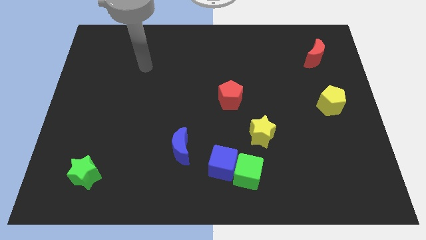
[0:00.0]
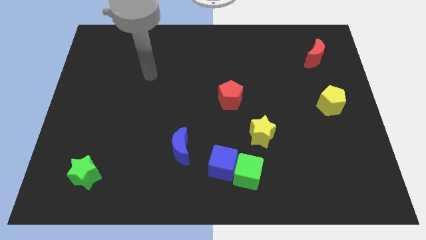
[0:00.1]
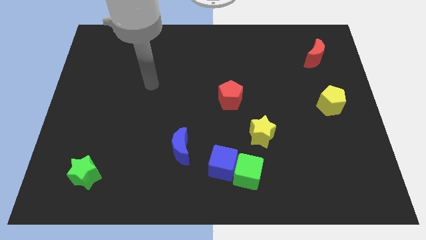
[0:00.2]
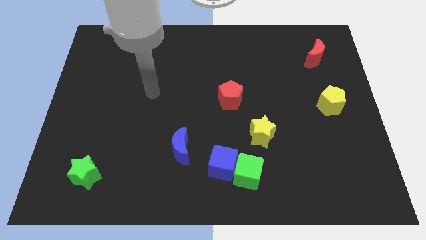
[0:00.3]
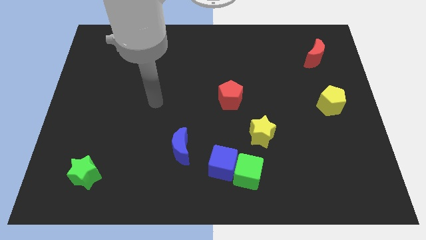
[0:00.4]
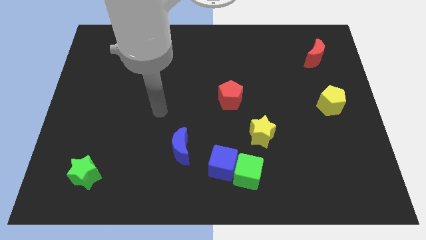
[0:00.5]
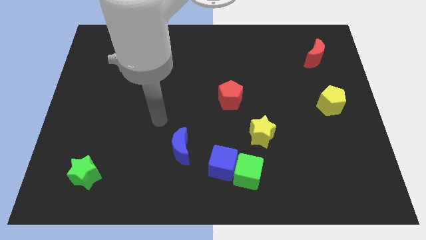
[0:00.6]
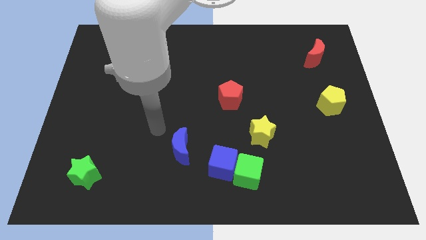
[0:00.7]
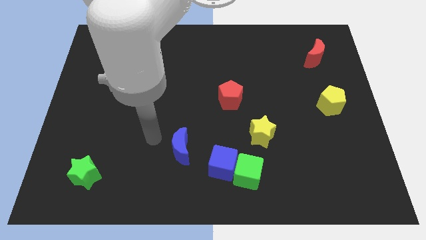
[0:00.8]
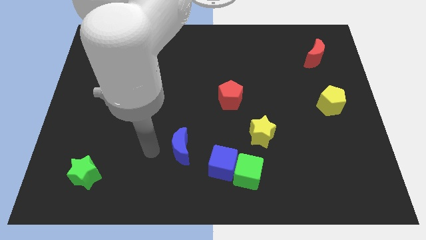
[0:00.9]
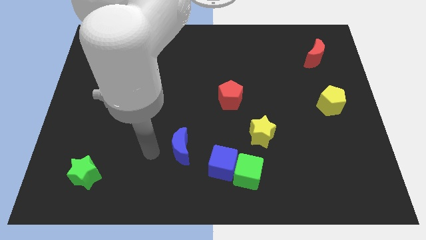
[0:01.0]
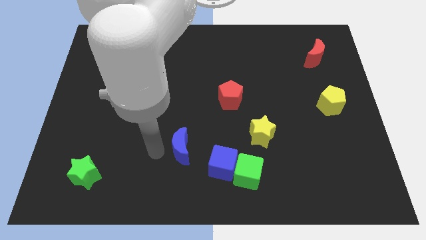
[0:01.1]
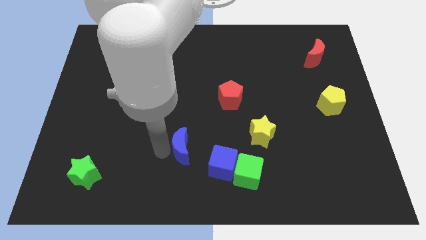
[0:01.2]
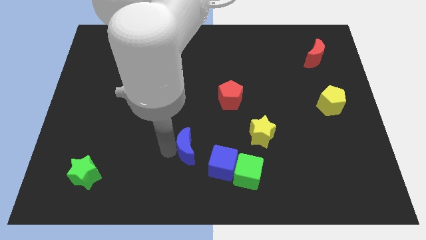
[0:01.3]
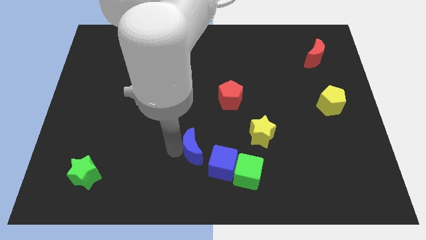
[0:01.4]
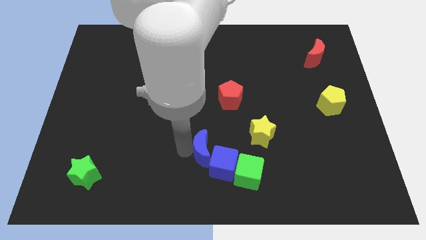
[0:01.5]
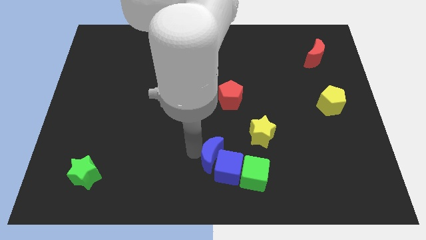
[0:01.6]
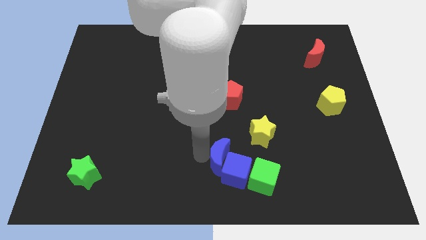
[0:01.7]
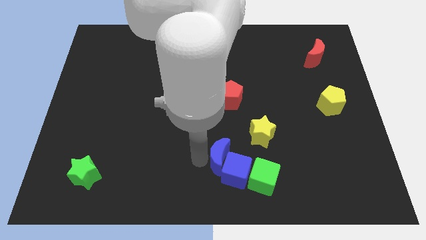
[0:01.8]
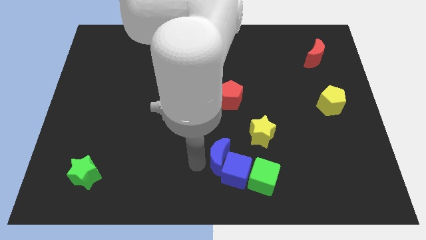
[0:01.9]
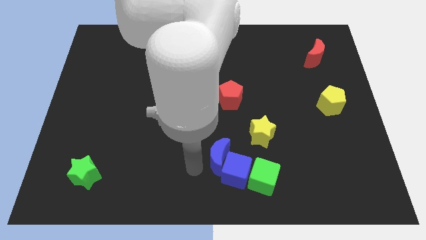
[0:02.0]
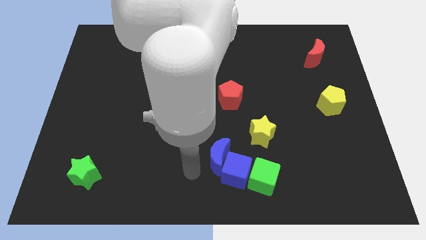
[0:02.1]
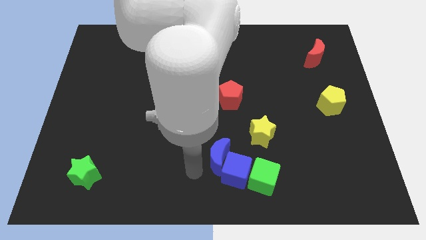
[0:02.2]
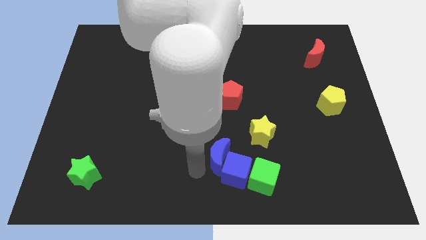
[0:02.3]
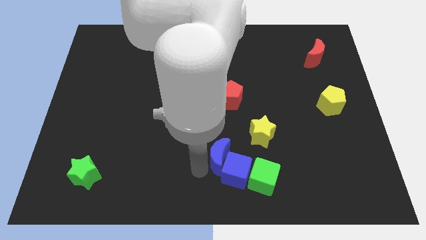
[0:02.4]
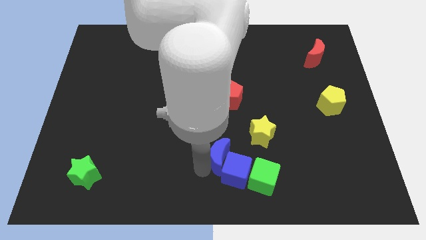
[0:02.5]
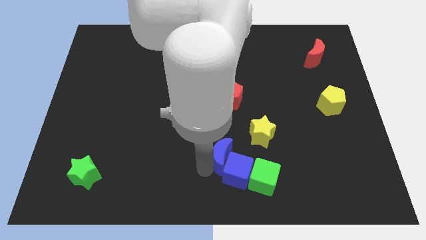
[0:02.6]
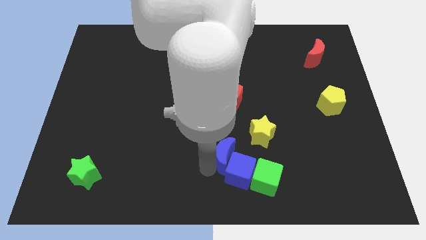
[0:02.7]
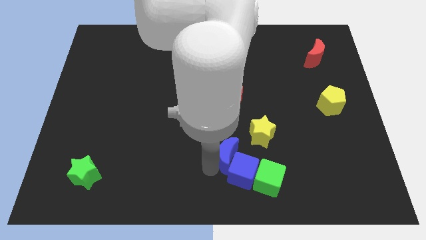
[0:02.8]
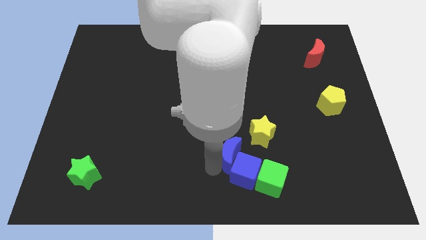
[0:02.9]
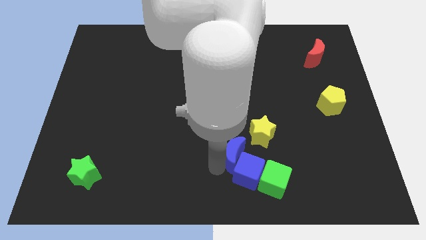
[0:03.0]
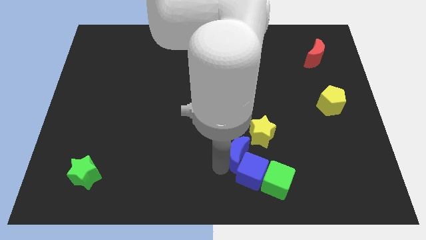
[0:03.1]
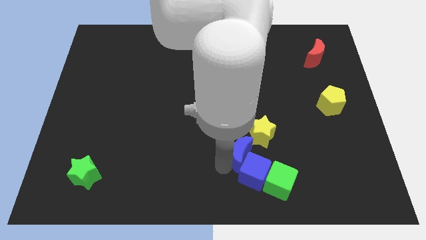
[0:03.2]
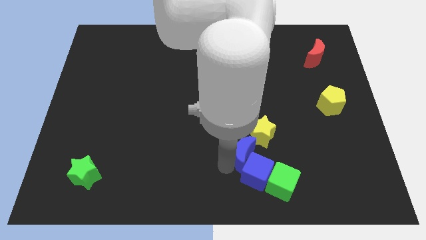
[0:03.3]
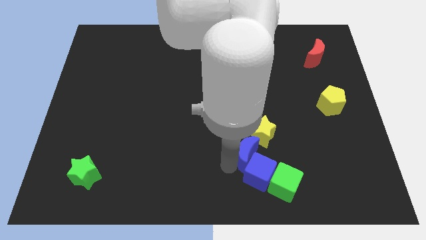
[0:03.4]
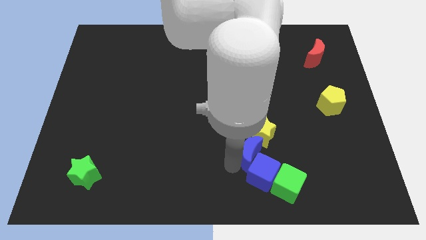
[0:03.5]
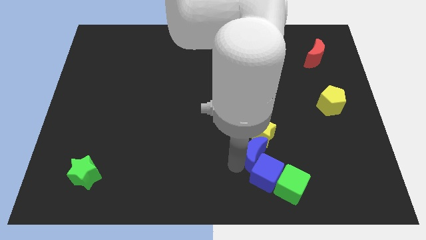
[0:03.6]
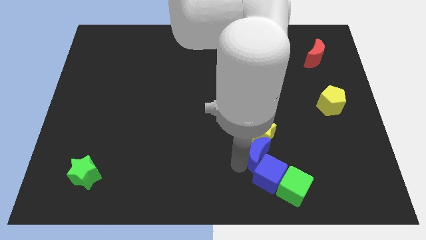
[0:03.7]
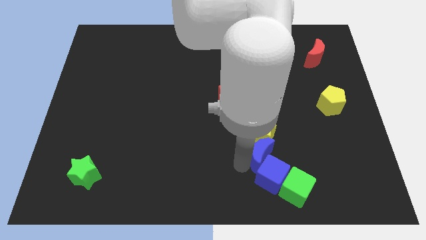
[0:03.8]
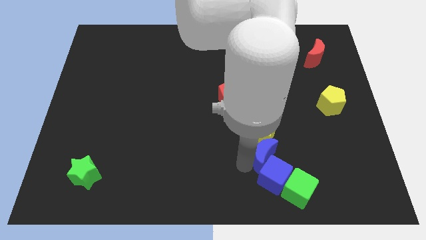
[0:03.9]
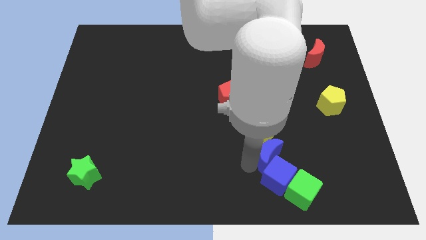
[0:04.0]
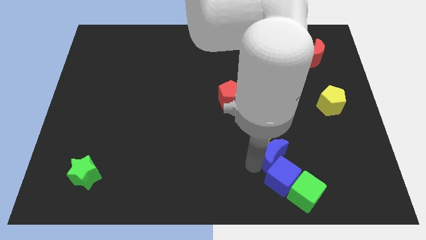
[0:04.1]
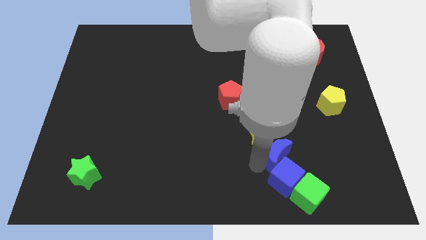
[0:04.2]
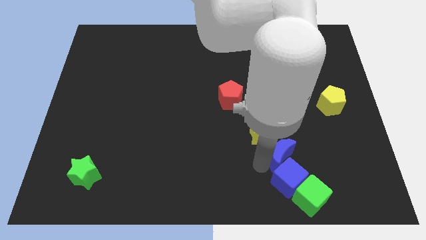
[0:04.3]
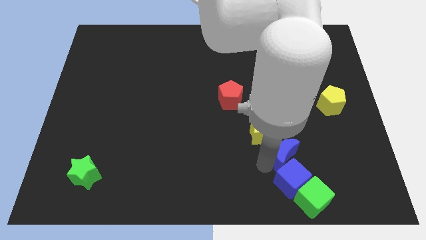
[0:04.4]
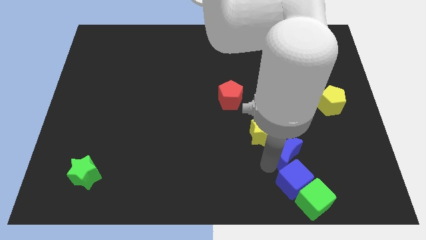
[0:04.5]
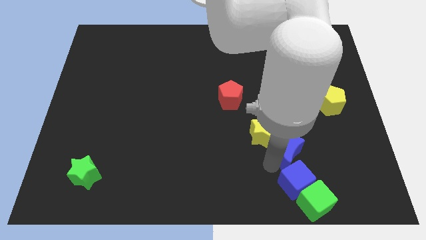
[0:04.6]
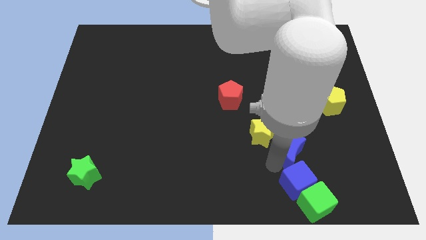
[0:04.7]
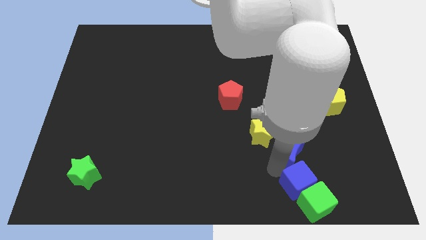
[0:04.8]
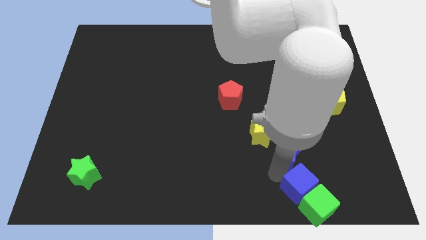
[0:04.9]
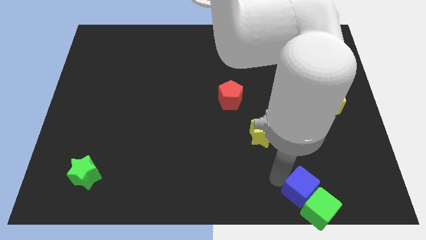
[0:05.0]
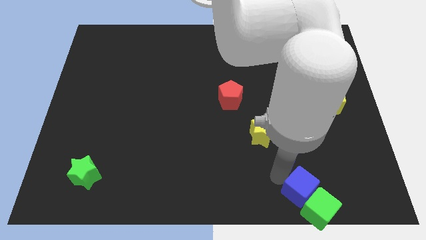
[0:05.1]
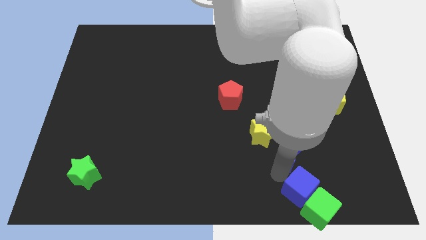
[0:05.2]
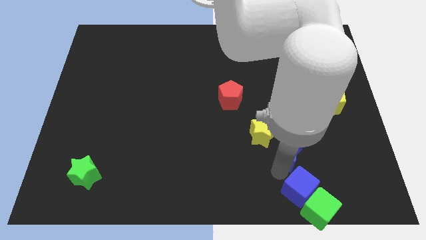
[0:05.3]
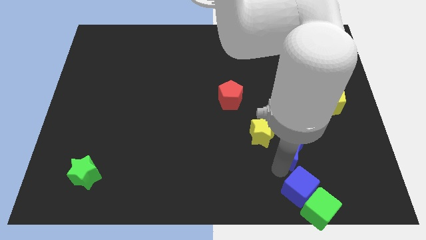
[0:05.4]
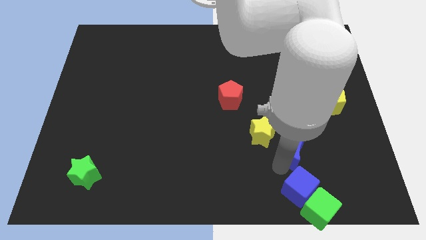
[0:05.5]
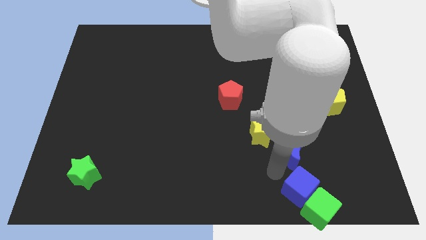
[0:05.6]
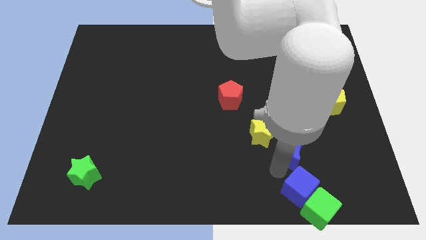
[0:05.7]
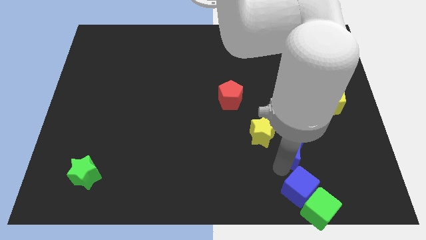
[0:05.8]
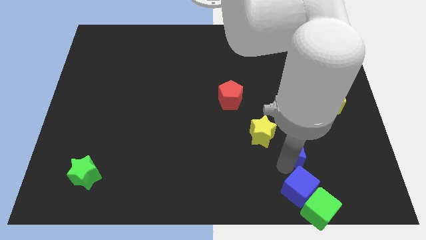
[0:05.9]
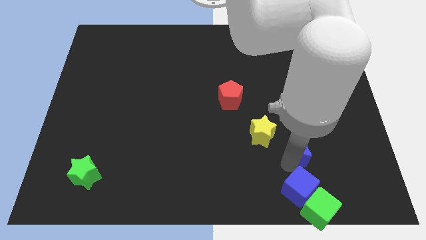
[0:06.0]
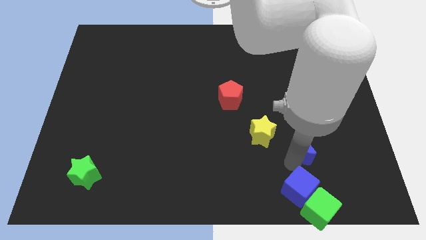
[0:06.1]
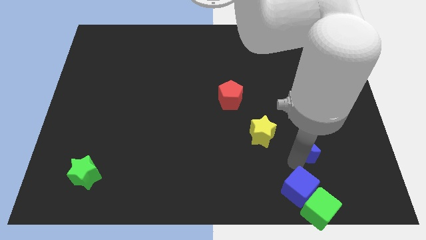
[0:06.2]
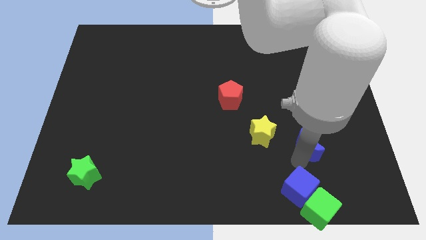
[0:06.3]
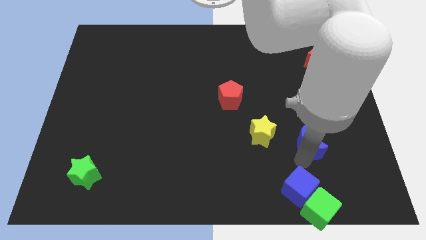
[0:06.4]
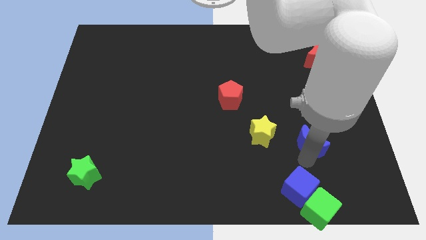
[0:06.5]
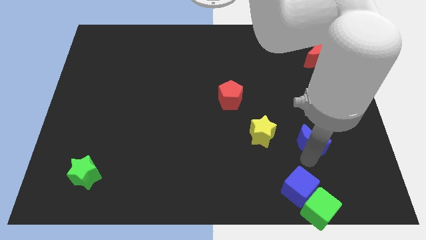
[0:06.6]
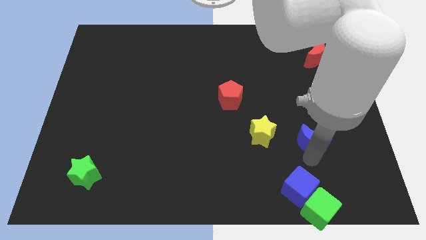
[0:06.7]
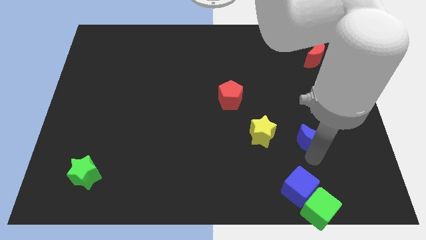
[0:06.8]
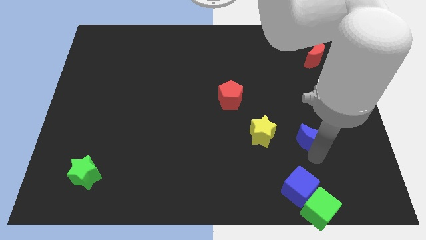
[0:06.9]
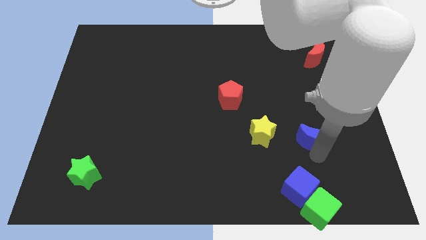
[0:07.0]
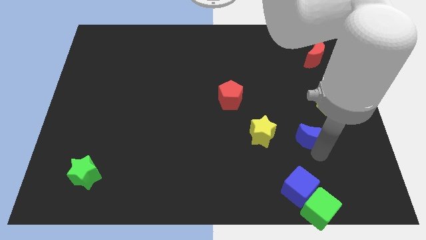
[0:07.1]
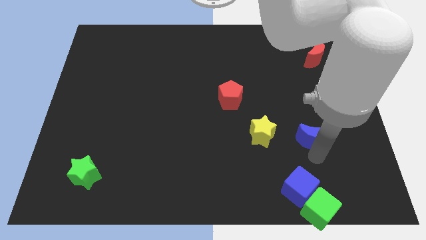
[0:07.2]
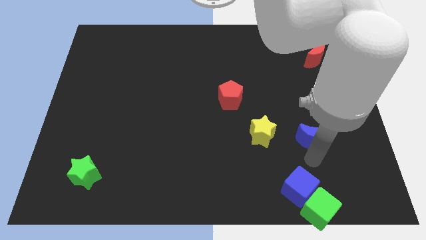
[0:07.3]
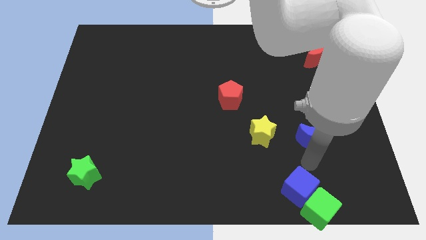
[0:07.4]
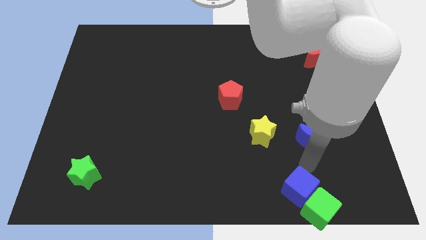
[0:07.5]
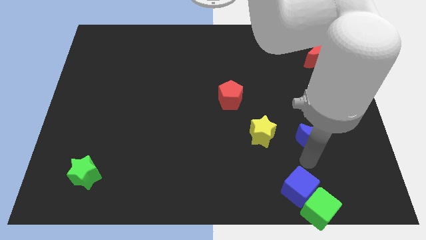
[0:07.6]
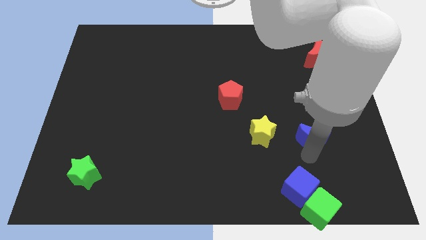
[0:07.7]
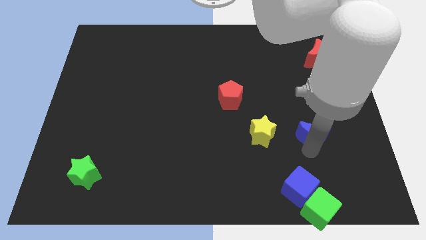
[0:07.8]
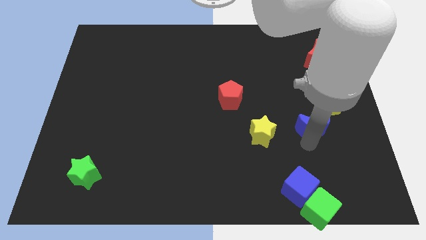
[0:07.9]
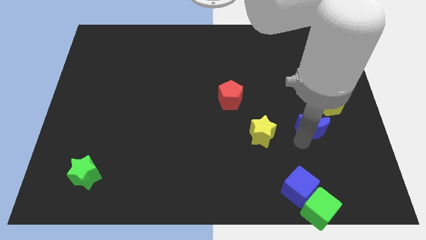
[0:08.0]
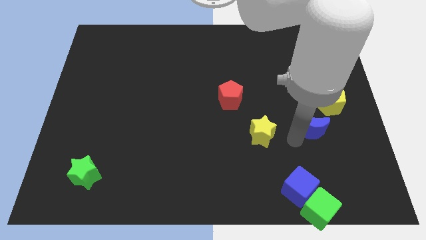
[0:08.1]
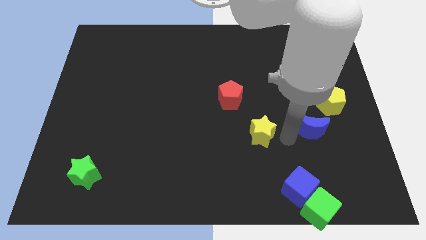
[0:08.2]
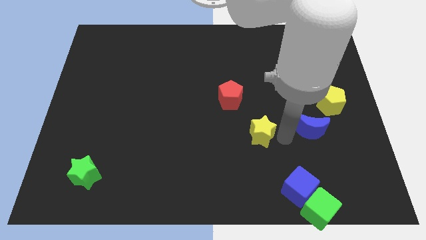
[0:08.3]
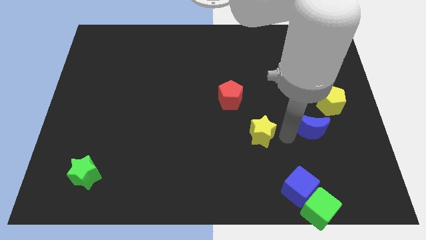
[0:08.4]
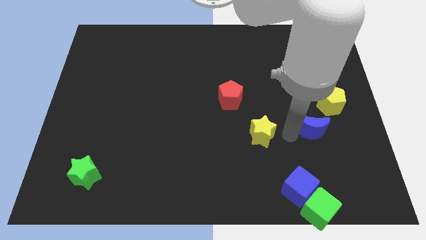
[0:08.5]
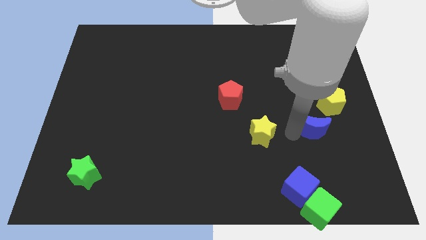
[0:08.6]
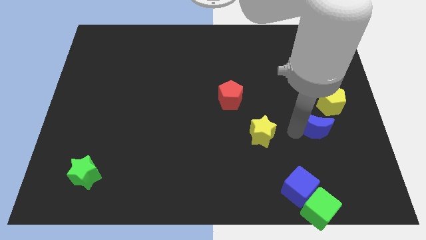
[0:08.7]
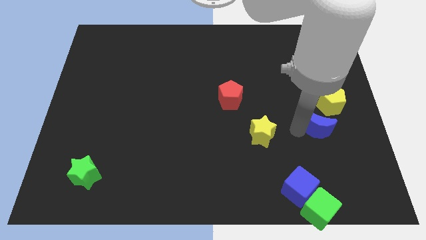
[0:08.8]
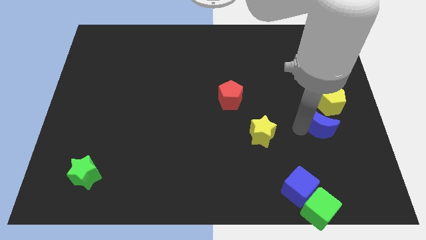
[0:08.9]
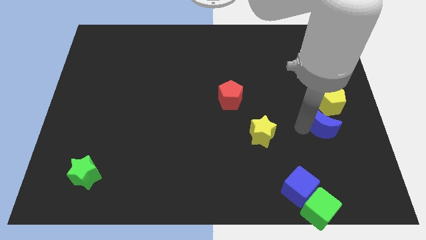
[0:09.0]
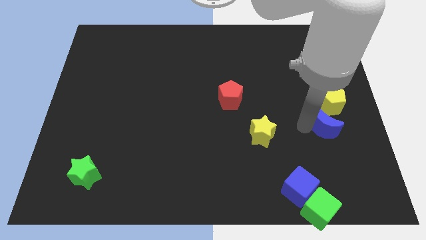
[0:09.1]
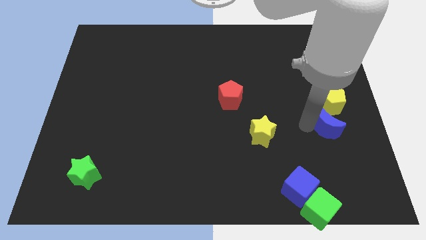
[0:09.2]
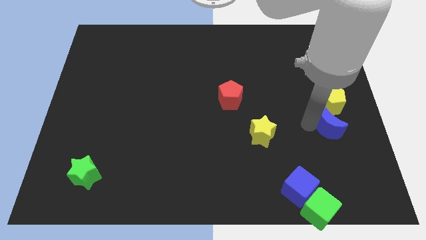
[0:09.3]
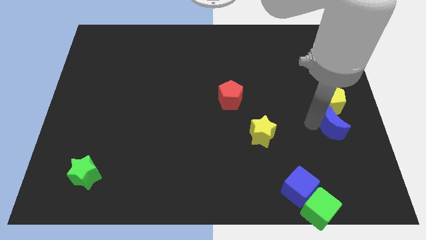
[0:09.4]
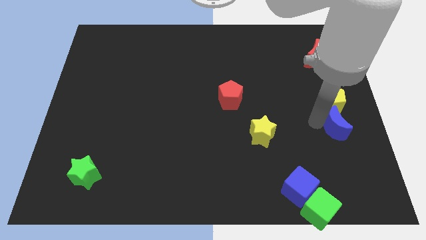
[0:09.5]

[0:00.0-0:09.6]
slide the blue moon to the right side of the board
